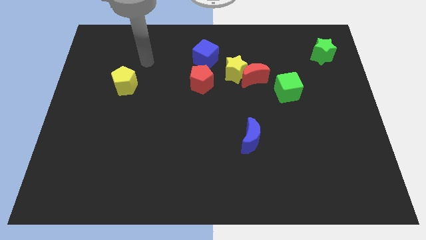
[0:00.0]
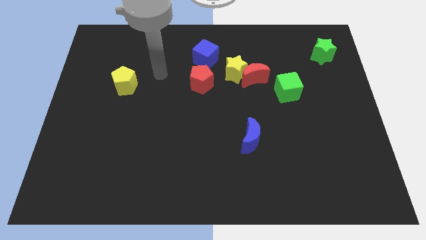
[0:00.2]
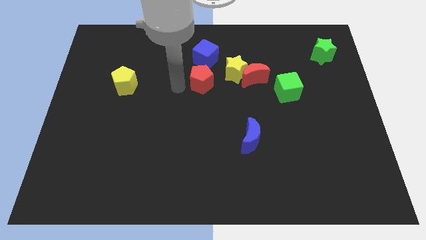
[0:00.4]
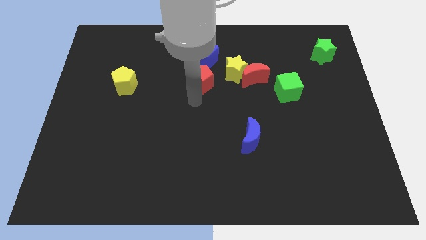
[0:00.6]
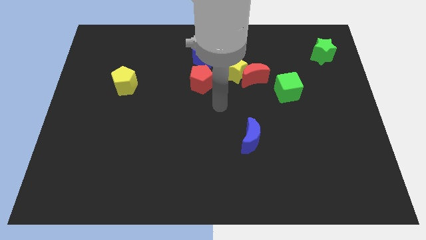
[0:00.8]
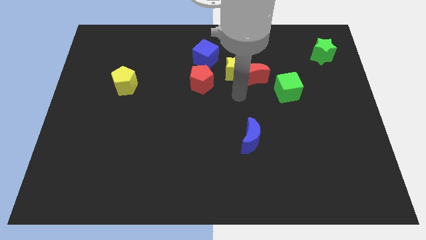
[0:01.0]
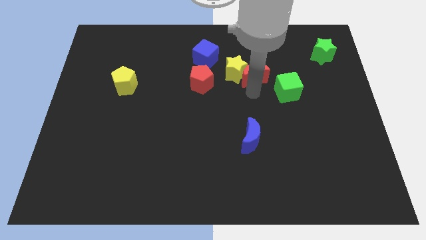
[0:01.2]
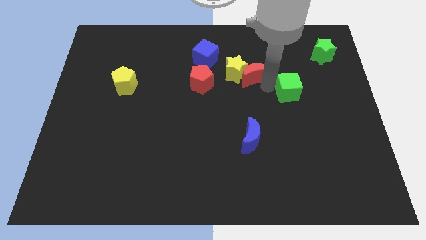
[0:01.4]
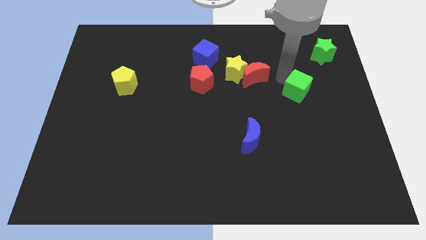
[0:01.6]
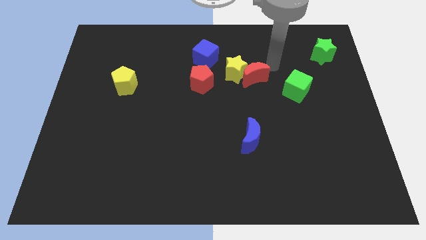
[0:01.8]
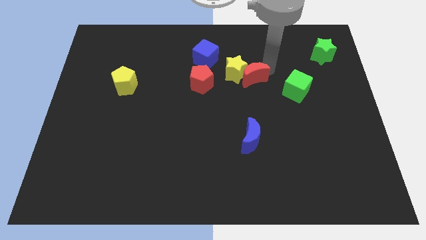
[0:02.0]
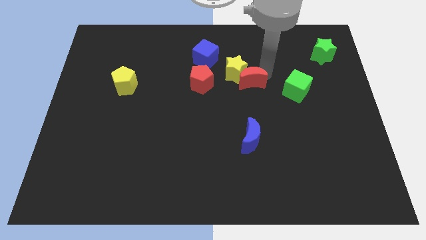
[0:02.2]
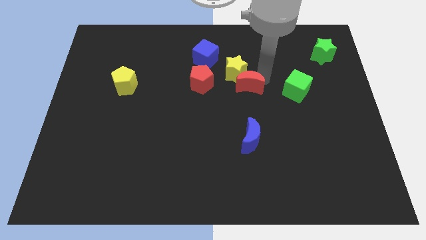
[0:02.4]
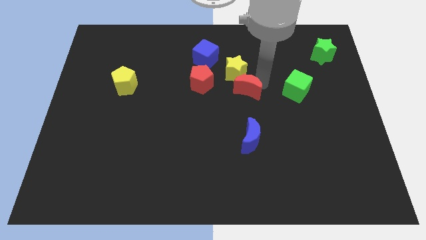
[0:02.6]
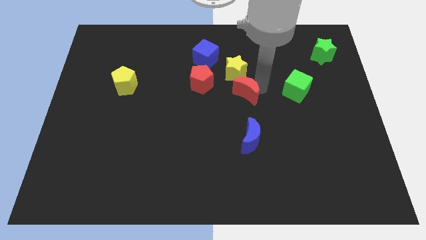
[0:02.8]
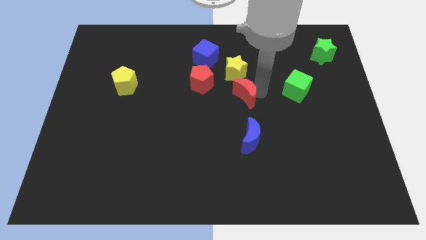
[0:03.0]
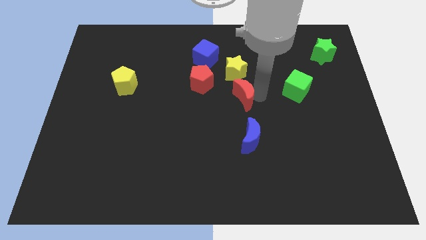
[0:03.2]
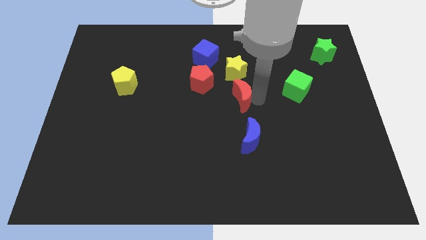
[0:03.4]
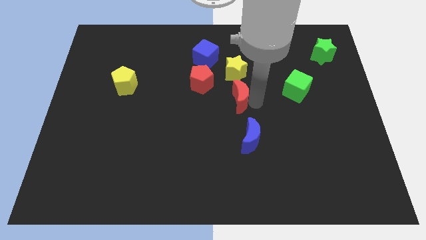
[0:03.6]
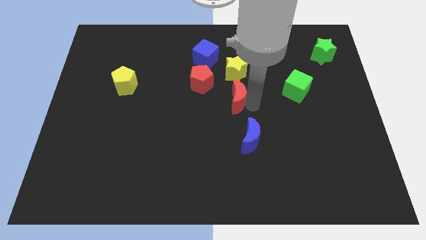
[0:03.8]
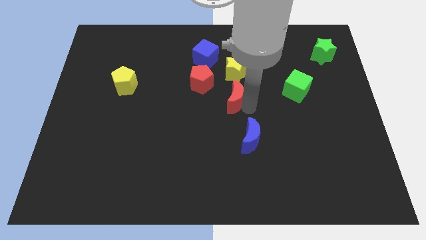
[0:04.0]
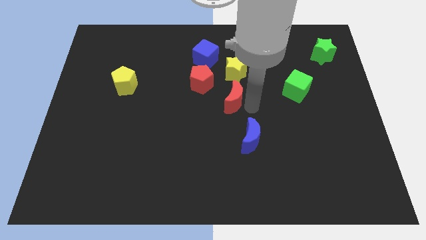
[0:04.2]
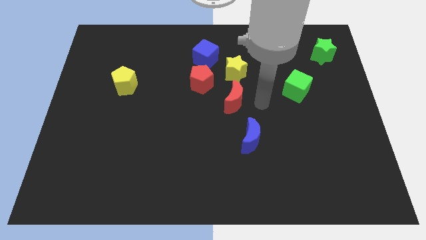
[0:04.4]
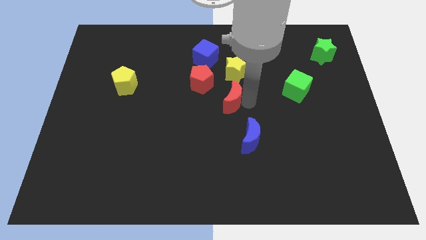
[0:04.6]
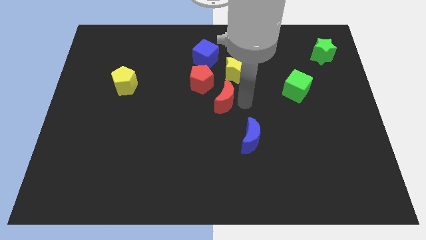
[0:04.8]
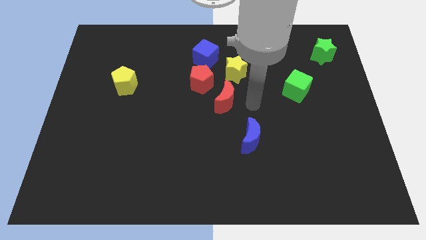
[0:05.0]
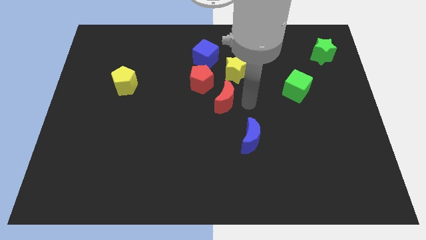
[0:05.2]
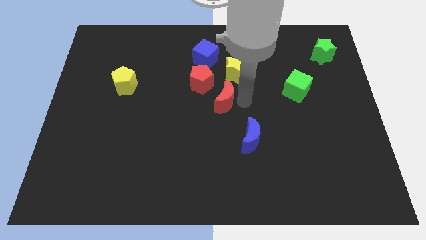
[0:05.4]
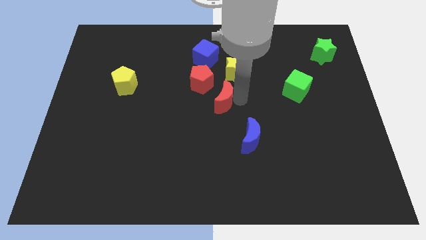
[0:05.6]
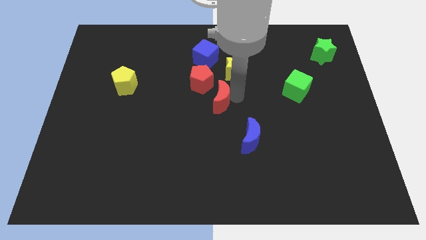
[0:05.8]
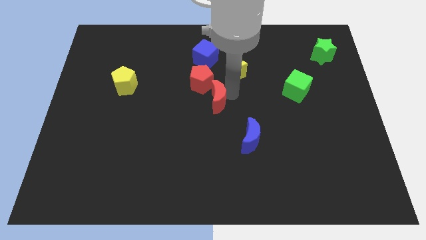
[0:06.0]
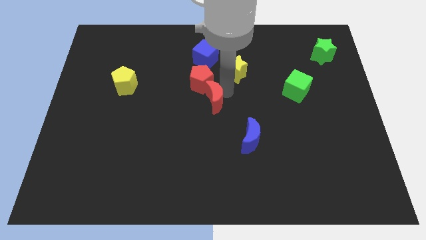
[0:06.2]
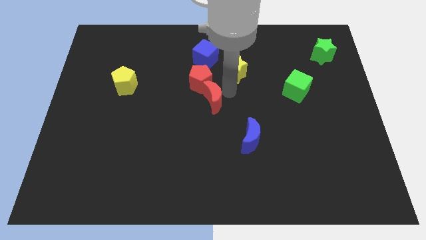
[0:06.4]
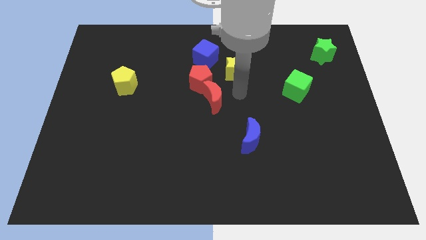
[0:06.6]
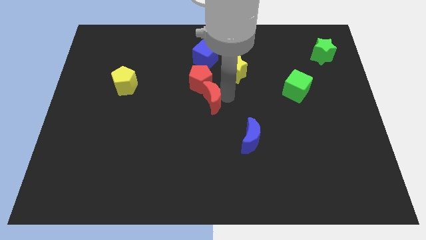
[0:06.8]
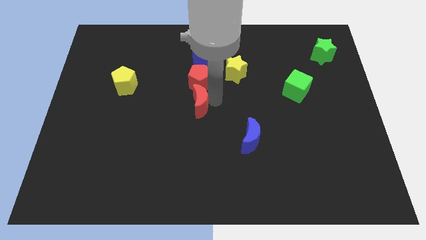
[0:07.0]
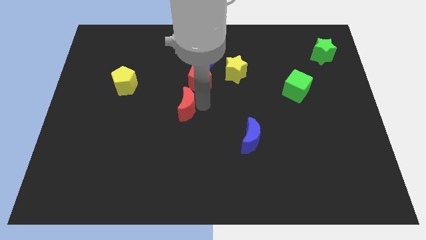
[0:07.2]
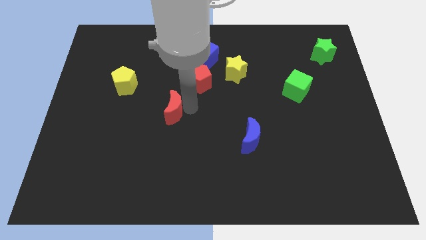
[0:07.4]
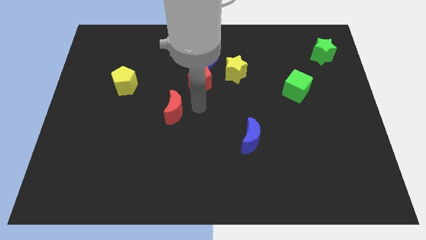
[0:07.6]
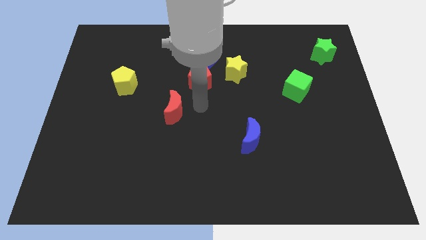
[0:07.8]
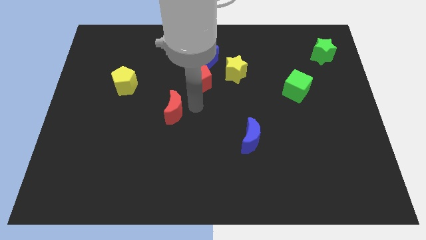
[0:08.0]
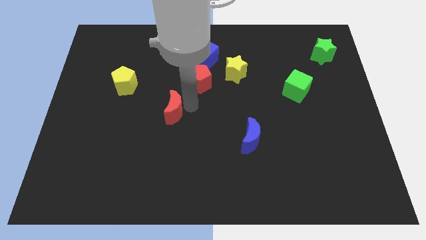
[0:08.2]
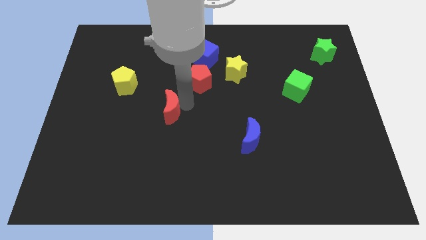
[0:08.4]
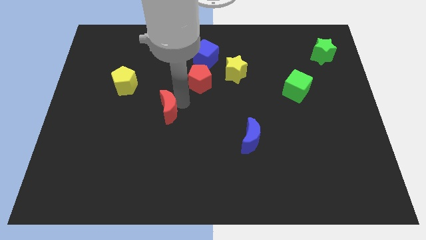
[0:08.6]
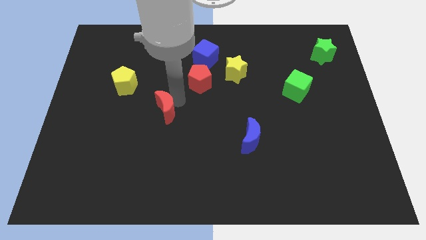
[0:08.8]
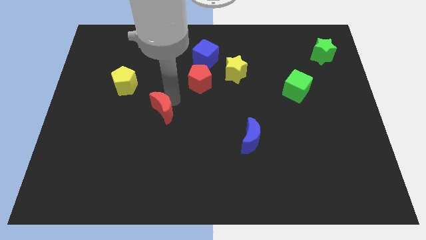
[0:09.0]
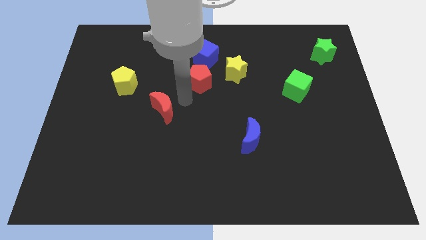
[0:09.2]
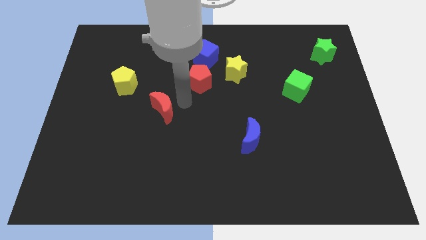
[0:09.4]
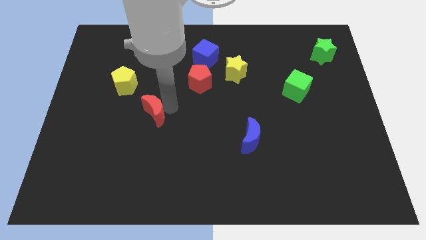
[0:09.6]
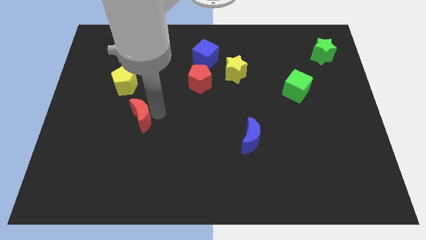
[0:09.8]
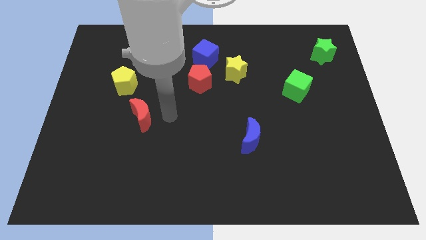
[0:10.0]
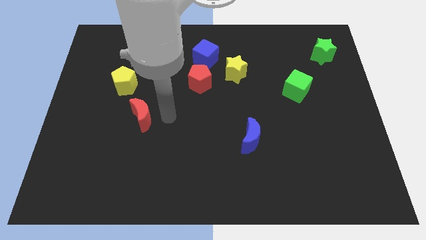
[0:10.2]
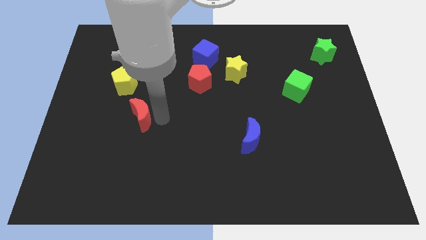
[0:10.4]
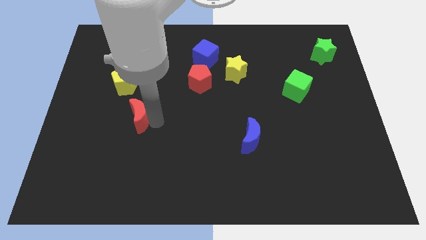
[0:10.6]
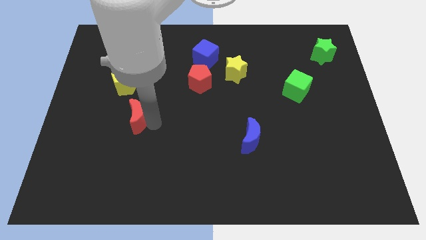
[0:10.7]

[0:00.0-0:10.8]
put the red moon to the bottom side of the yellow pentagon

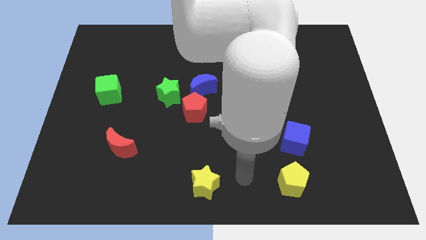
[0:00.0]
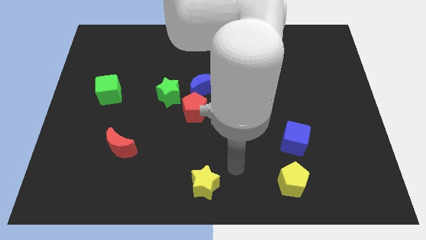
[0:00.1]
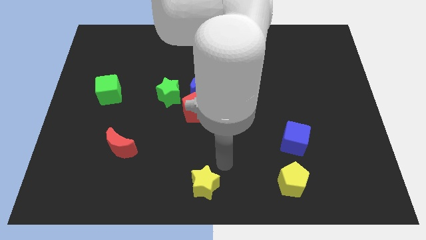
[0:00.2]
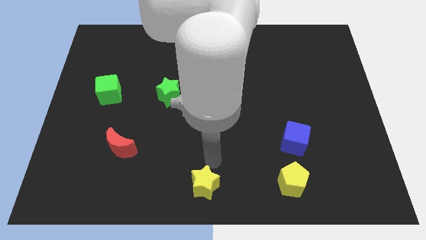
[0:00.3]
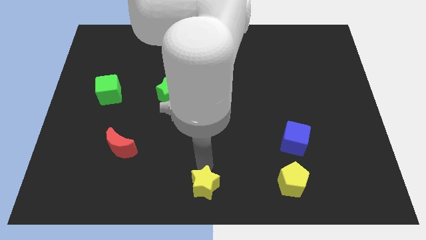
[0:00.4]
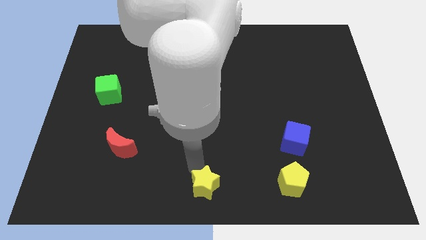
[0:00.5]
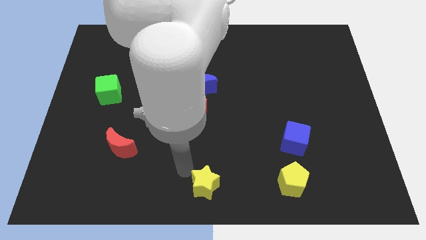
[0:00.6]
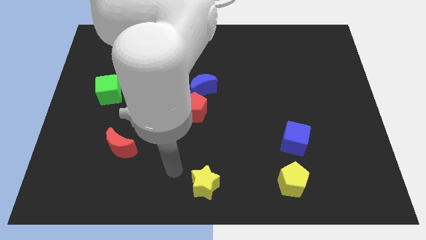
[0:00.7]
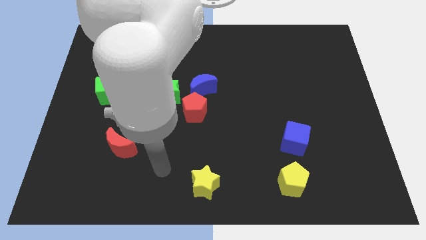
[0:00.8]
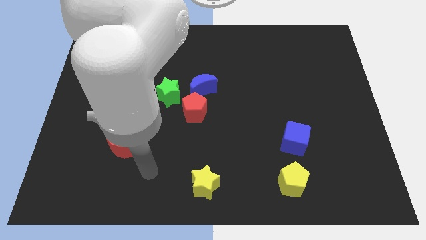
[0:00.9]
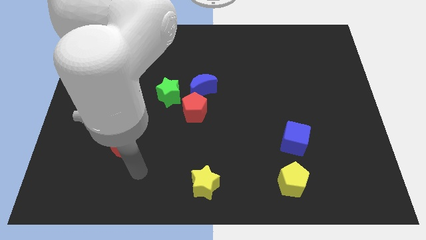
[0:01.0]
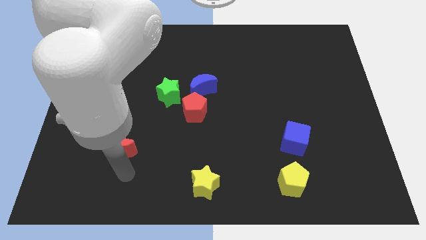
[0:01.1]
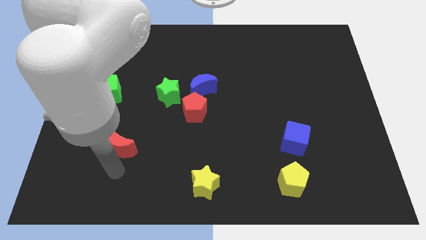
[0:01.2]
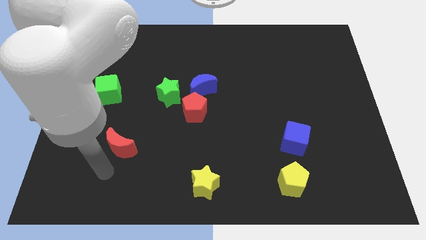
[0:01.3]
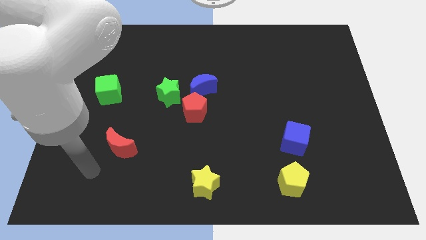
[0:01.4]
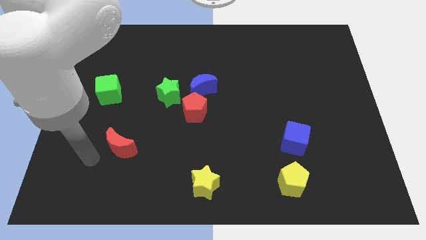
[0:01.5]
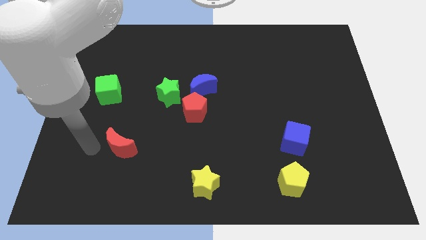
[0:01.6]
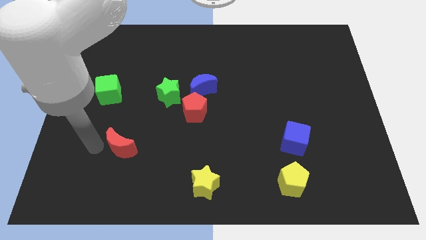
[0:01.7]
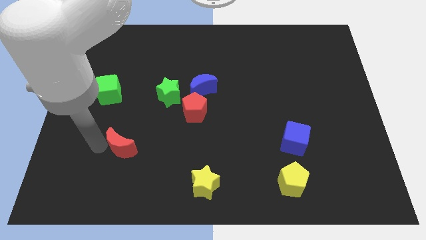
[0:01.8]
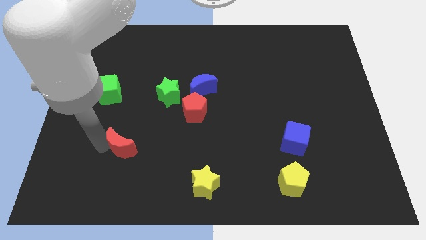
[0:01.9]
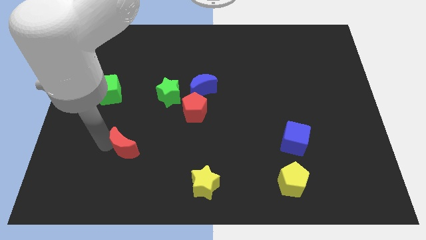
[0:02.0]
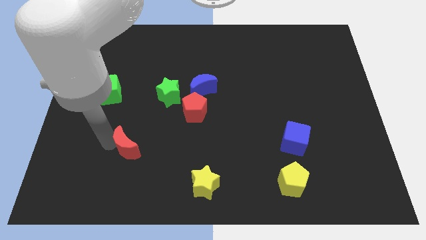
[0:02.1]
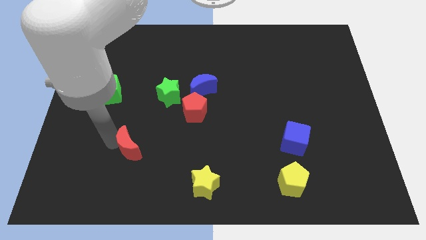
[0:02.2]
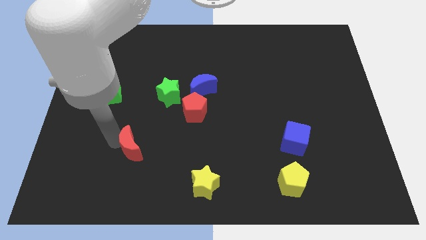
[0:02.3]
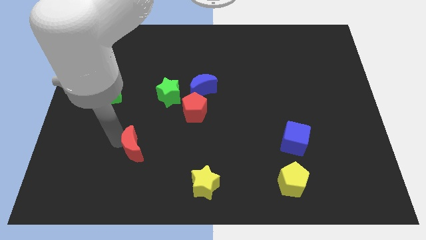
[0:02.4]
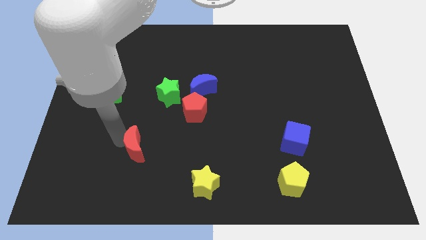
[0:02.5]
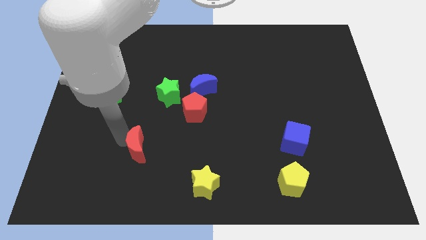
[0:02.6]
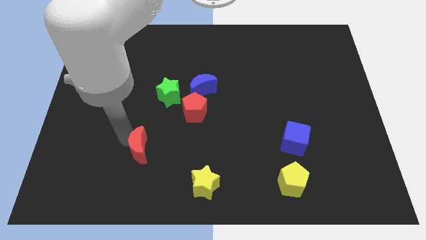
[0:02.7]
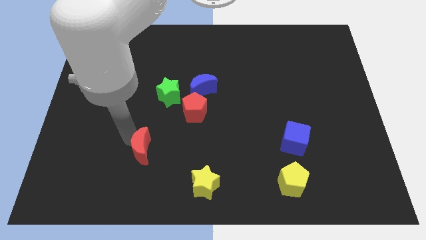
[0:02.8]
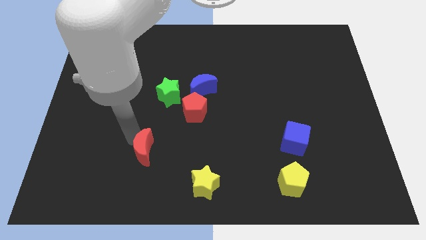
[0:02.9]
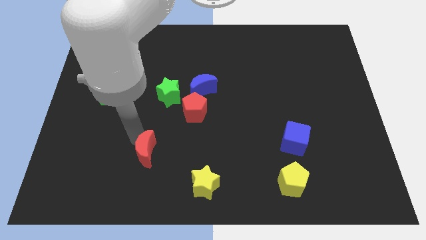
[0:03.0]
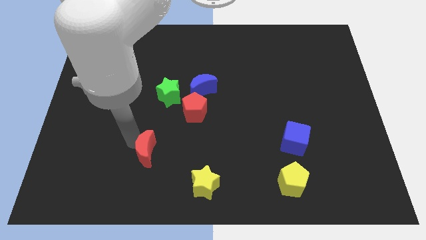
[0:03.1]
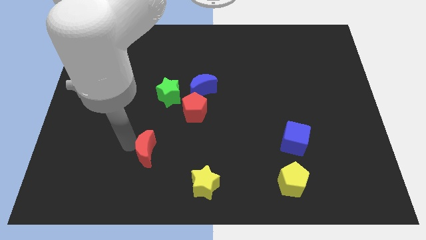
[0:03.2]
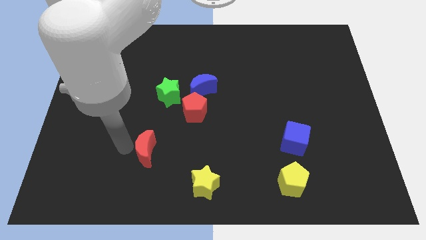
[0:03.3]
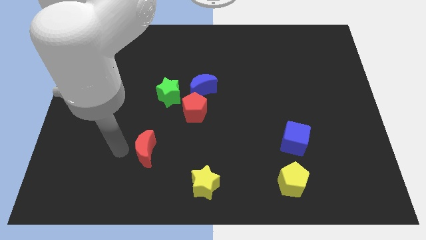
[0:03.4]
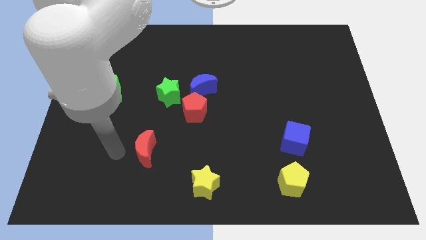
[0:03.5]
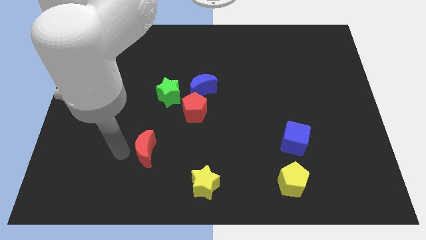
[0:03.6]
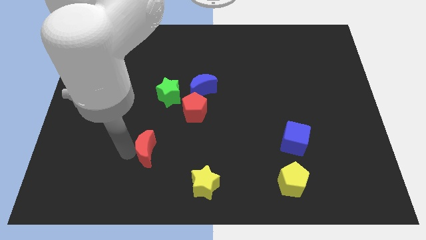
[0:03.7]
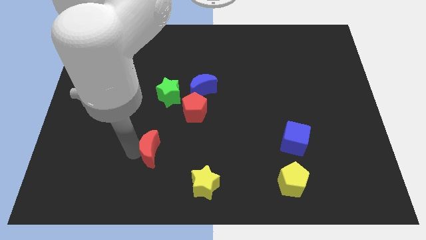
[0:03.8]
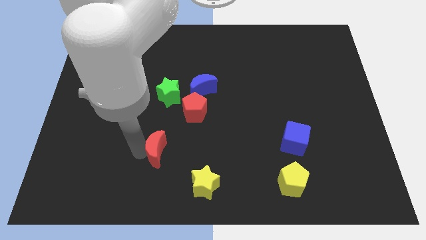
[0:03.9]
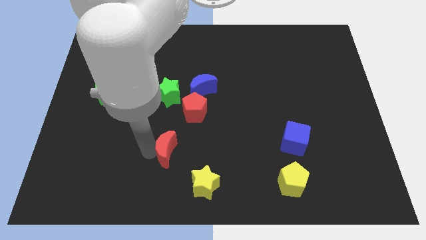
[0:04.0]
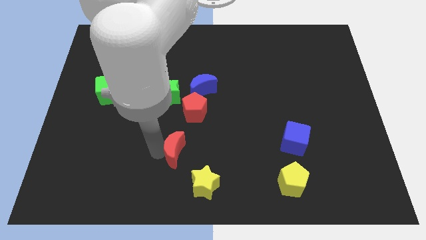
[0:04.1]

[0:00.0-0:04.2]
push the red moon below the red pentagon
